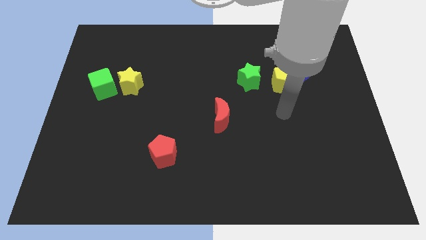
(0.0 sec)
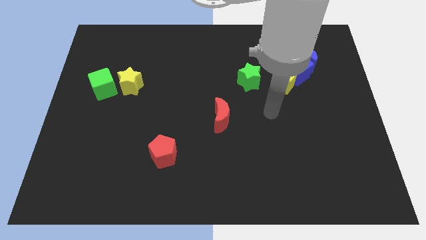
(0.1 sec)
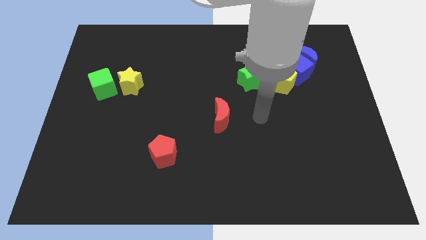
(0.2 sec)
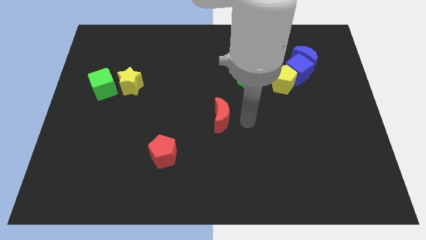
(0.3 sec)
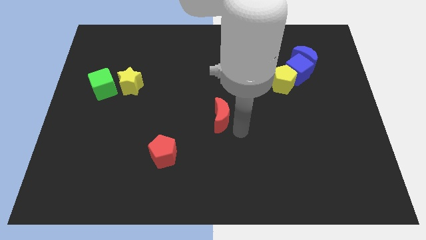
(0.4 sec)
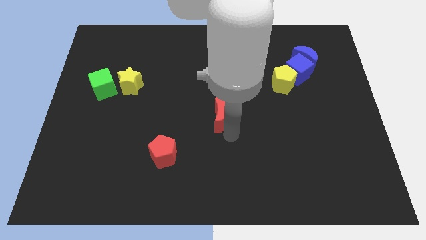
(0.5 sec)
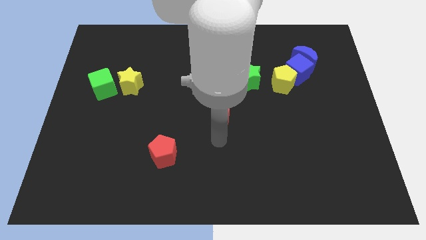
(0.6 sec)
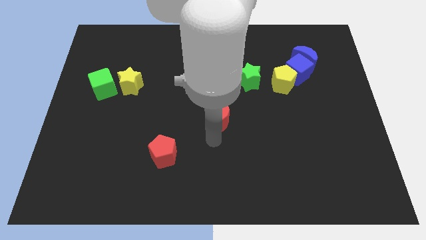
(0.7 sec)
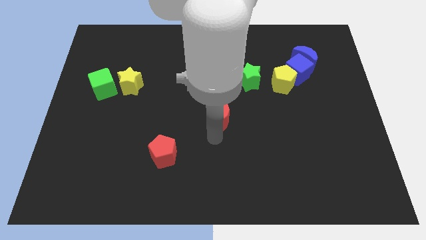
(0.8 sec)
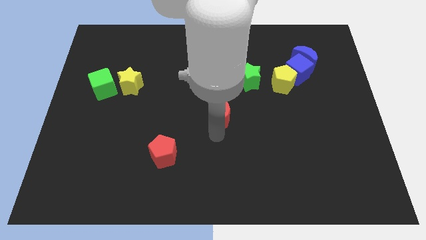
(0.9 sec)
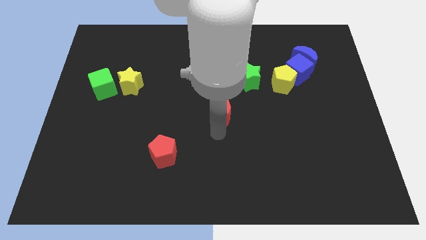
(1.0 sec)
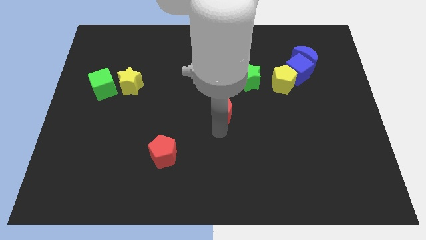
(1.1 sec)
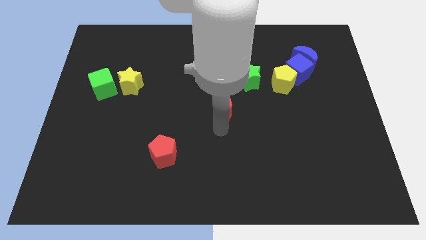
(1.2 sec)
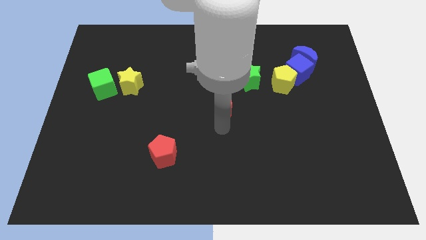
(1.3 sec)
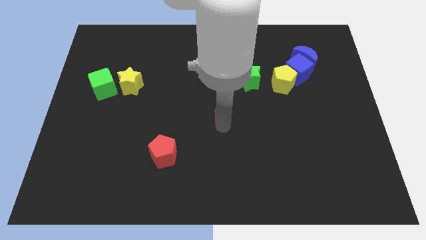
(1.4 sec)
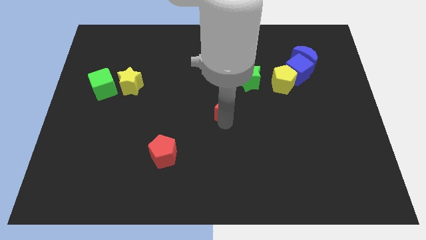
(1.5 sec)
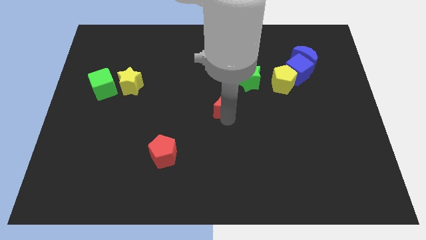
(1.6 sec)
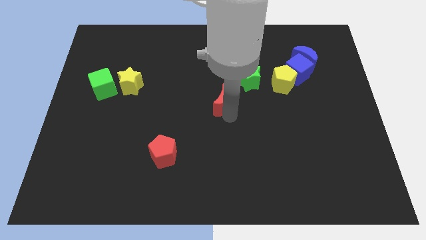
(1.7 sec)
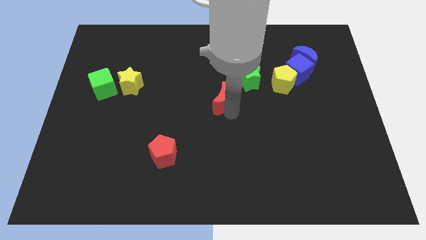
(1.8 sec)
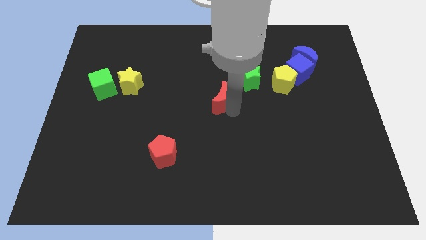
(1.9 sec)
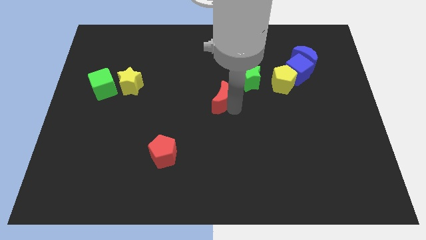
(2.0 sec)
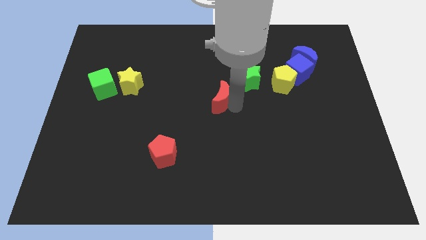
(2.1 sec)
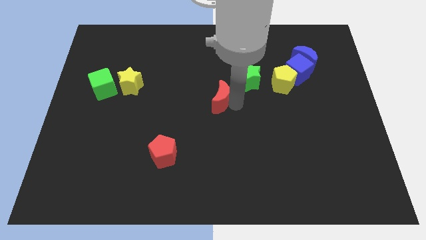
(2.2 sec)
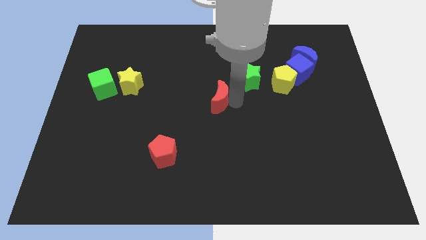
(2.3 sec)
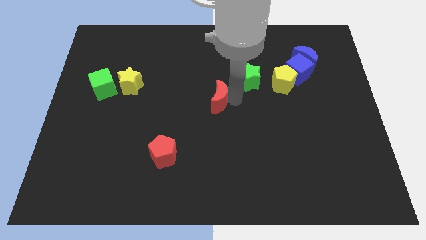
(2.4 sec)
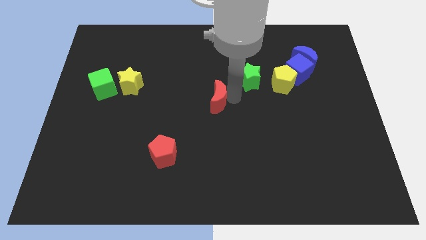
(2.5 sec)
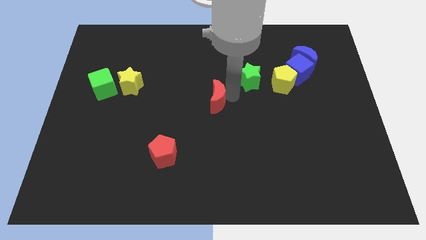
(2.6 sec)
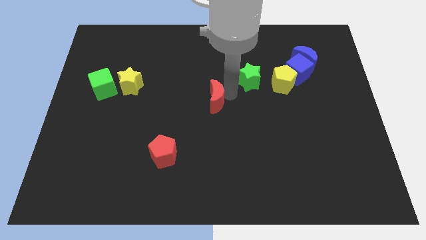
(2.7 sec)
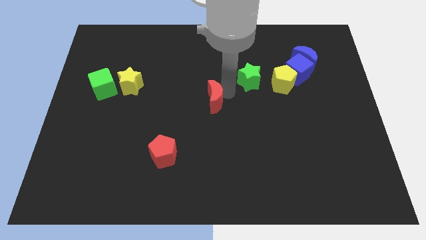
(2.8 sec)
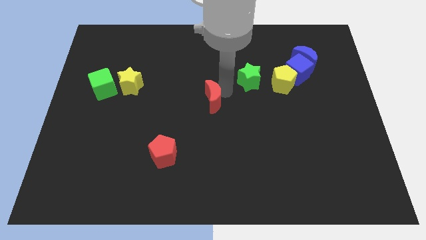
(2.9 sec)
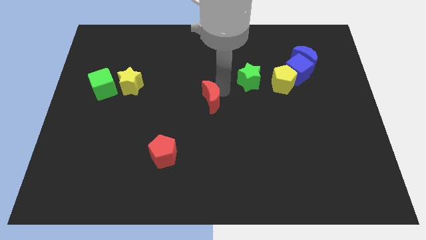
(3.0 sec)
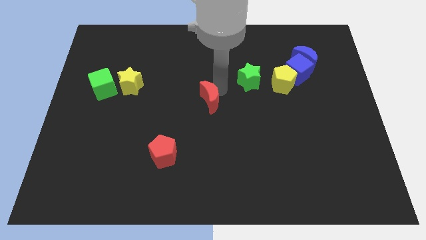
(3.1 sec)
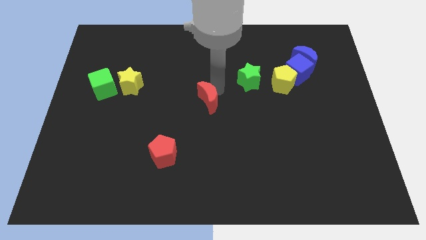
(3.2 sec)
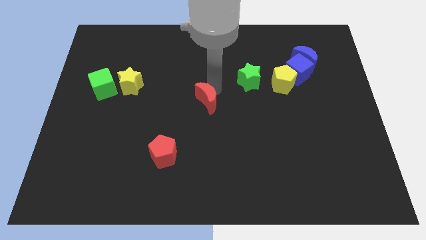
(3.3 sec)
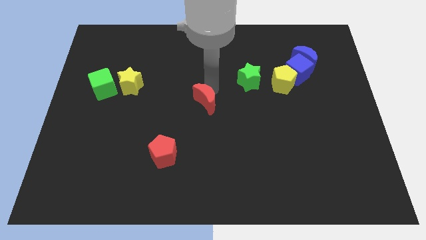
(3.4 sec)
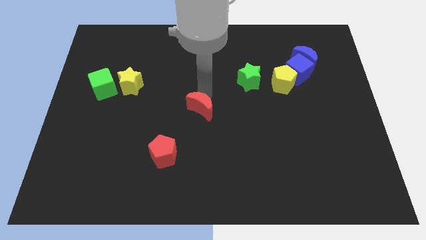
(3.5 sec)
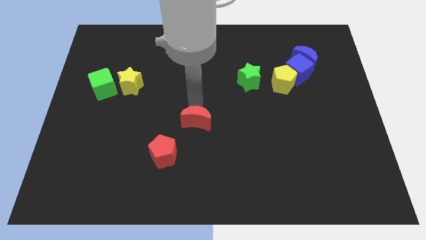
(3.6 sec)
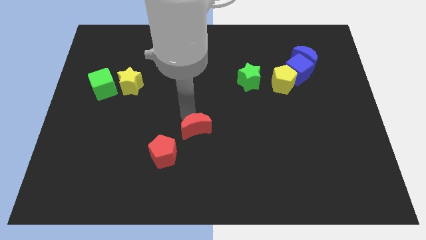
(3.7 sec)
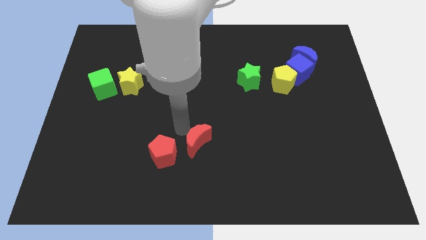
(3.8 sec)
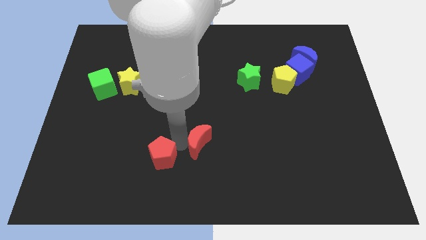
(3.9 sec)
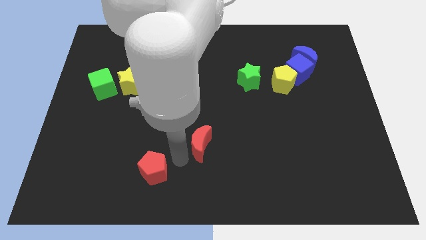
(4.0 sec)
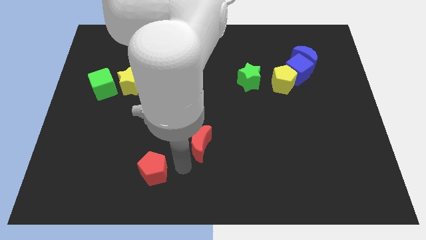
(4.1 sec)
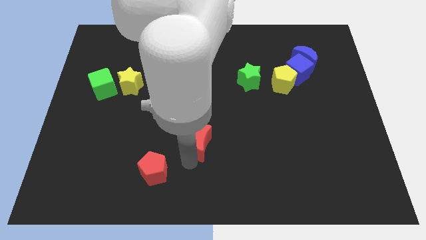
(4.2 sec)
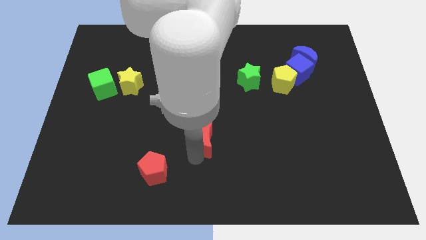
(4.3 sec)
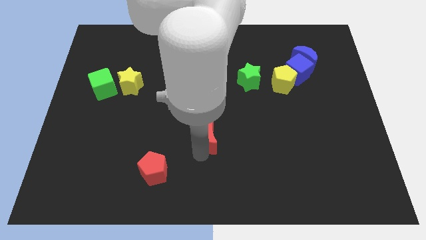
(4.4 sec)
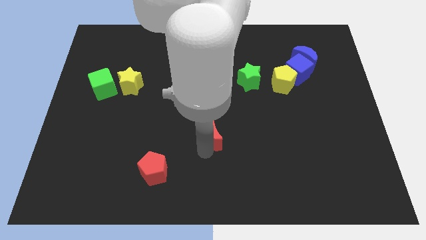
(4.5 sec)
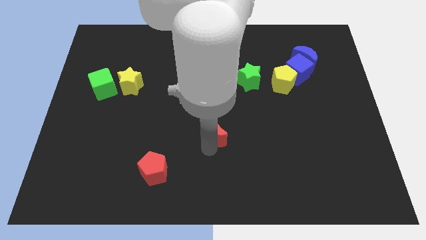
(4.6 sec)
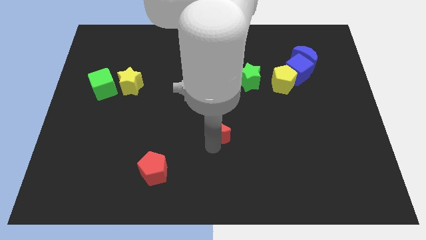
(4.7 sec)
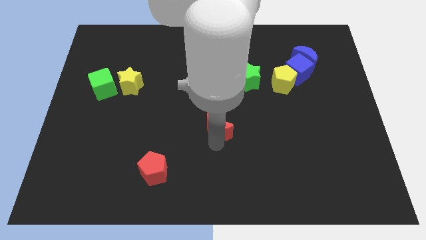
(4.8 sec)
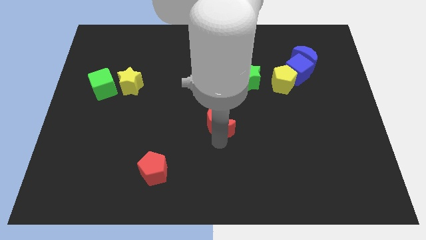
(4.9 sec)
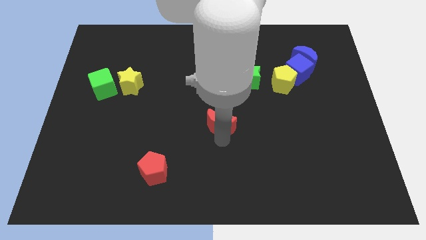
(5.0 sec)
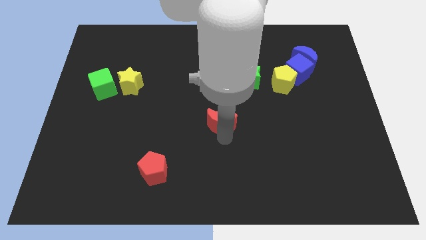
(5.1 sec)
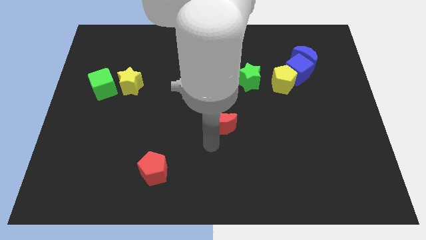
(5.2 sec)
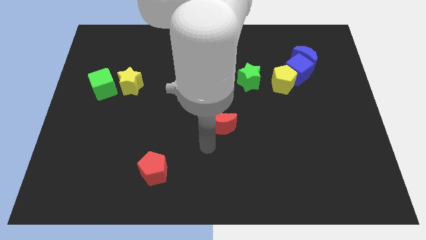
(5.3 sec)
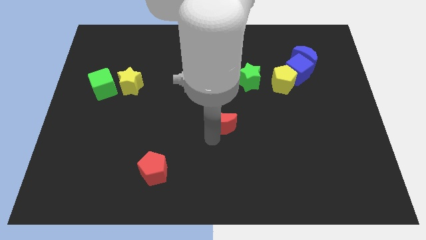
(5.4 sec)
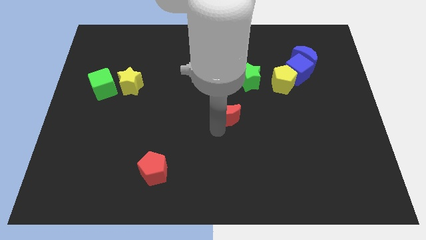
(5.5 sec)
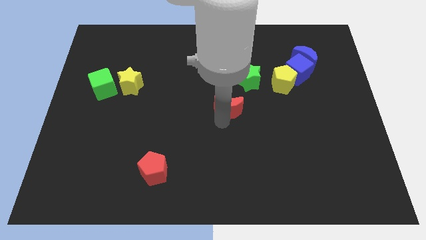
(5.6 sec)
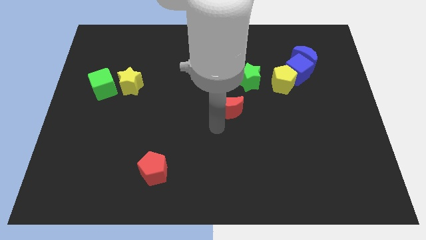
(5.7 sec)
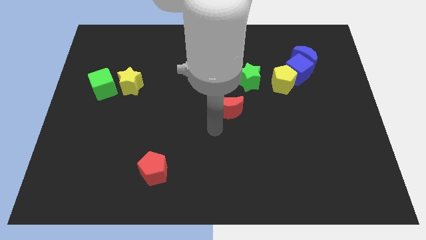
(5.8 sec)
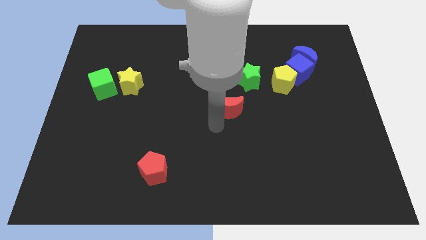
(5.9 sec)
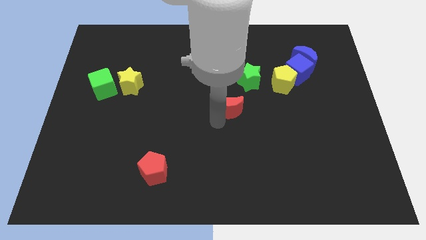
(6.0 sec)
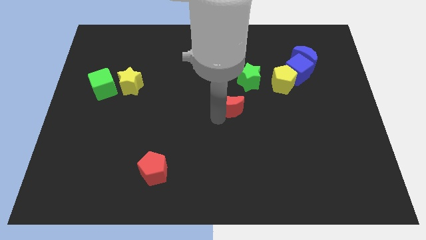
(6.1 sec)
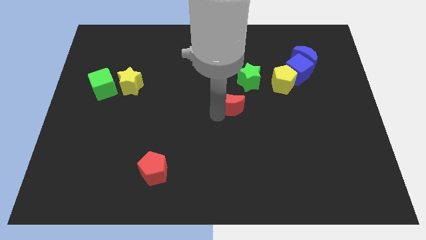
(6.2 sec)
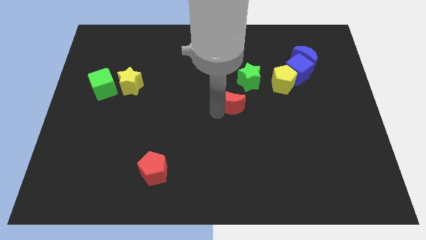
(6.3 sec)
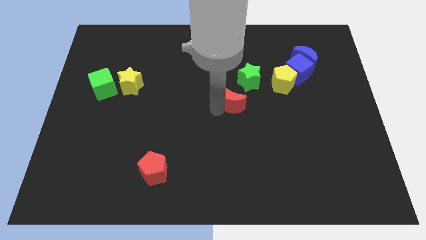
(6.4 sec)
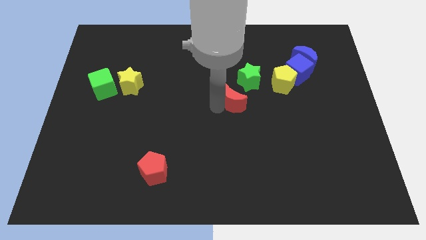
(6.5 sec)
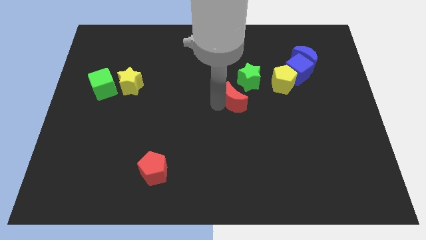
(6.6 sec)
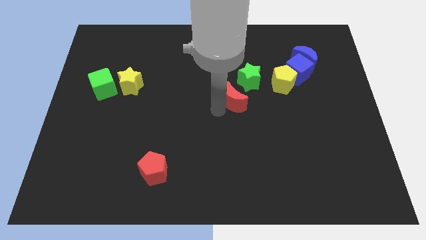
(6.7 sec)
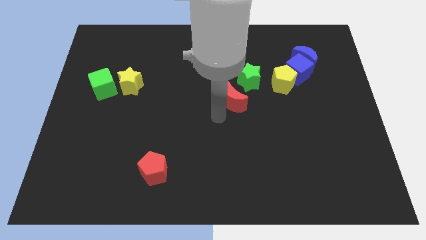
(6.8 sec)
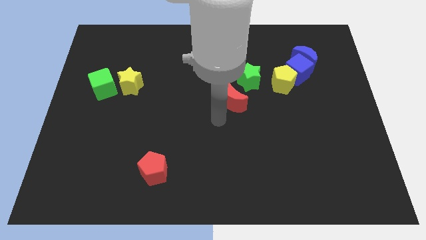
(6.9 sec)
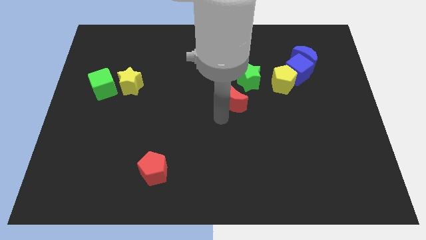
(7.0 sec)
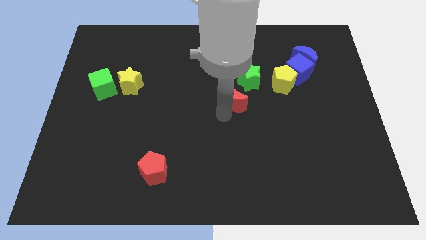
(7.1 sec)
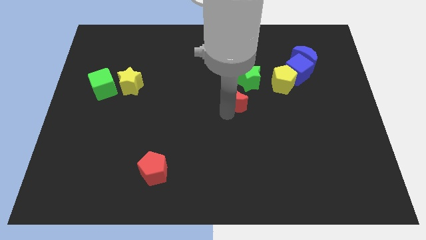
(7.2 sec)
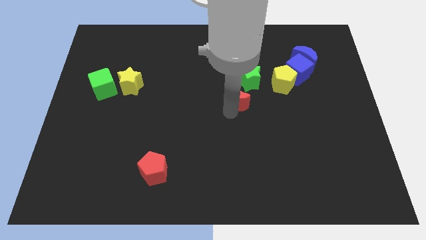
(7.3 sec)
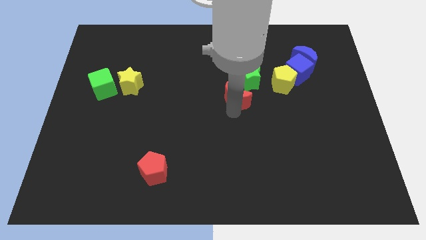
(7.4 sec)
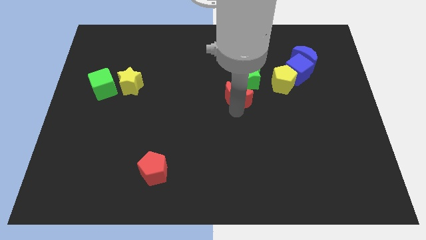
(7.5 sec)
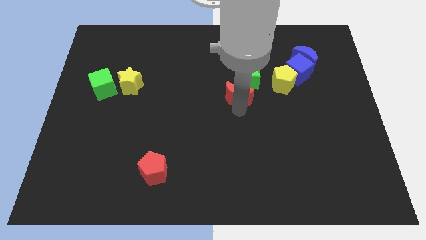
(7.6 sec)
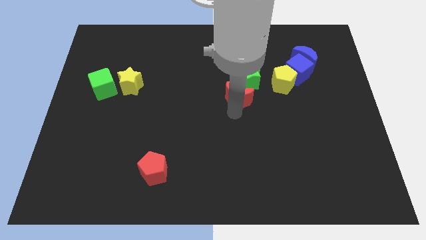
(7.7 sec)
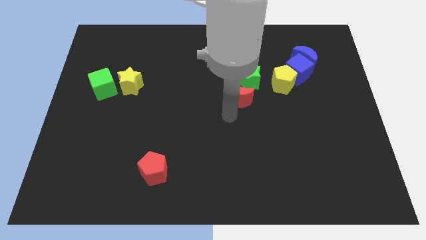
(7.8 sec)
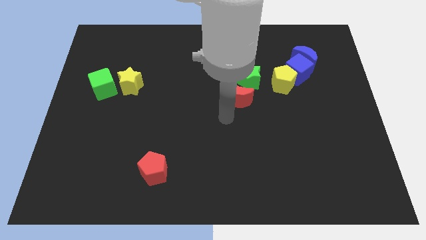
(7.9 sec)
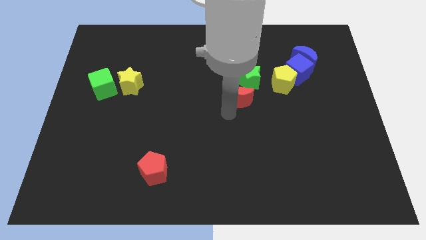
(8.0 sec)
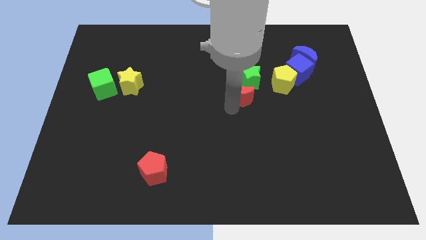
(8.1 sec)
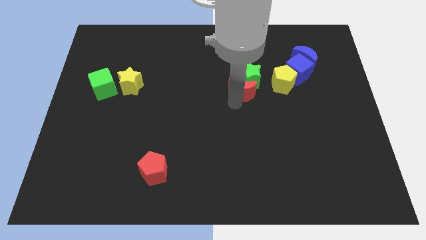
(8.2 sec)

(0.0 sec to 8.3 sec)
slide the red moon next to the green star
